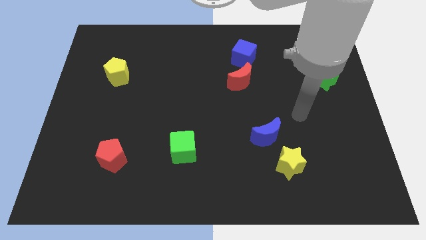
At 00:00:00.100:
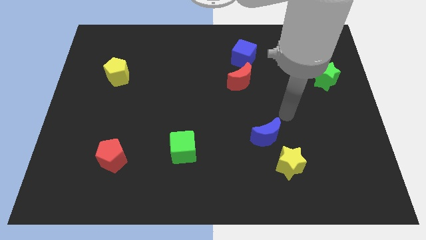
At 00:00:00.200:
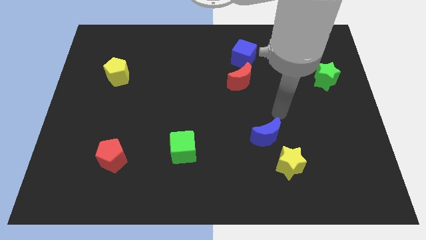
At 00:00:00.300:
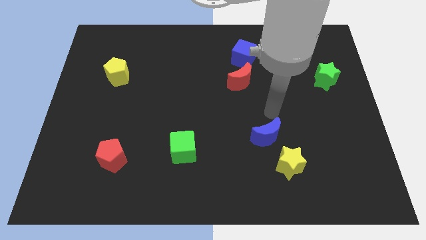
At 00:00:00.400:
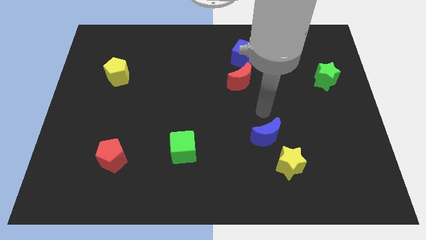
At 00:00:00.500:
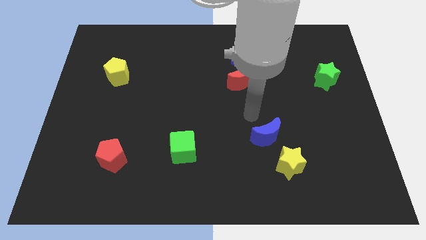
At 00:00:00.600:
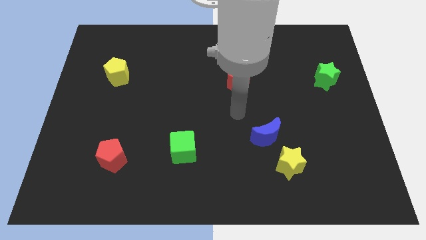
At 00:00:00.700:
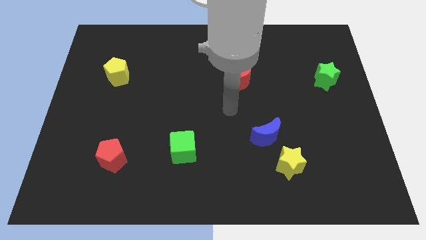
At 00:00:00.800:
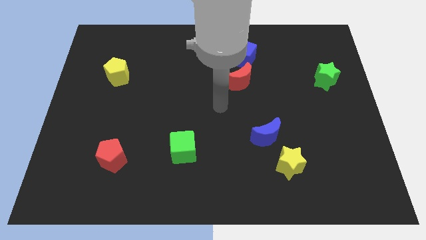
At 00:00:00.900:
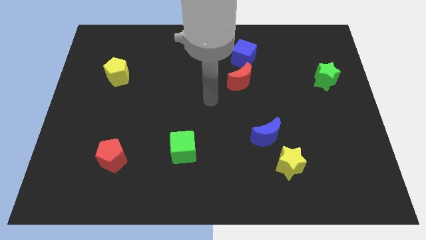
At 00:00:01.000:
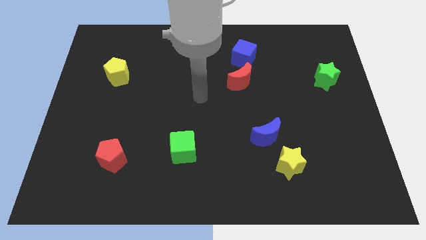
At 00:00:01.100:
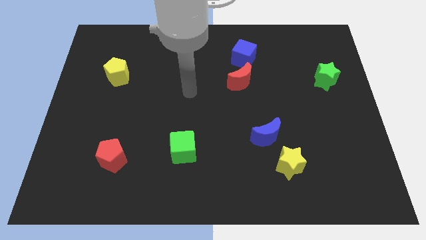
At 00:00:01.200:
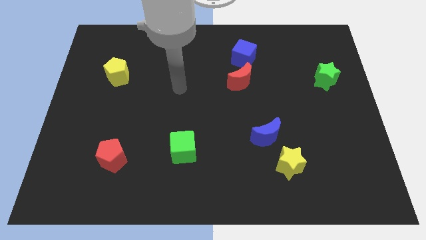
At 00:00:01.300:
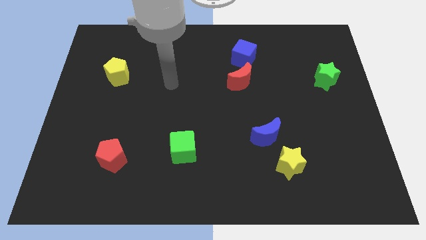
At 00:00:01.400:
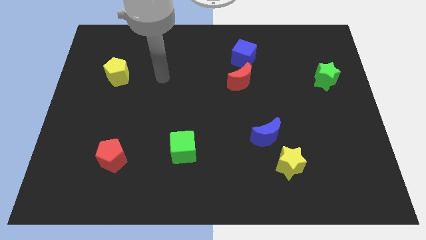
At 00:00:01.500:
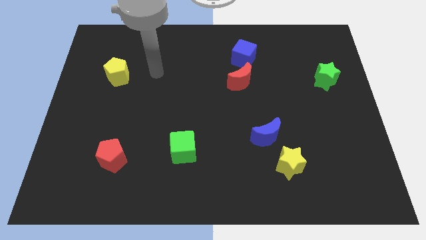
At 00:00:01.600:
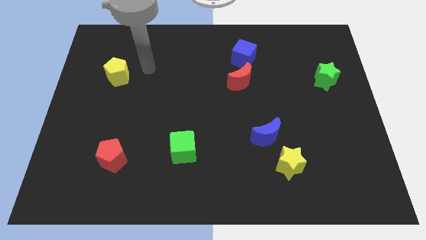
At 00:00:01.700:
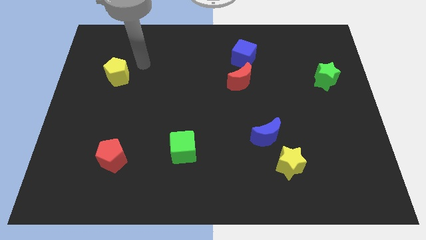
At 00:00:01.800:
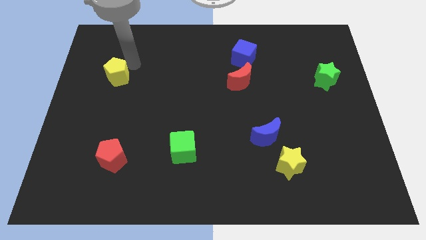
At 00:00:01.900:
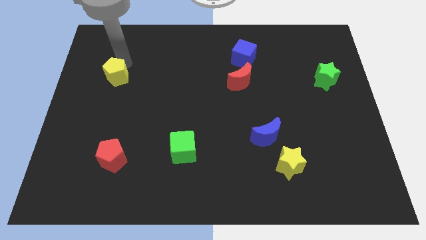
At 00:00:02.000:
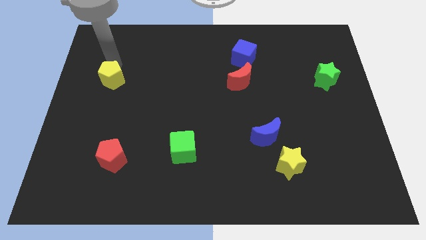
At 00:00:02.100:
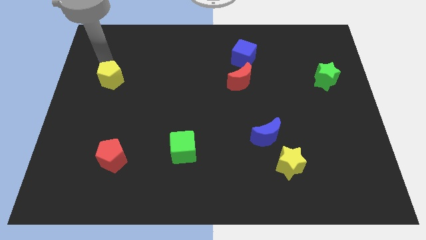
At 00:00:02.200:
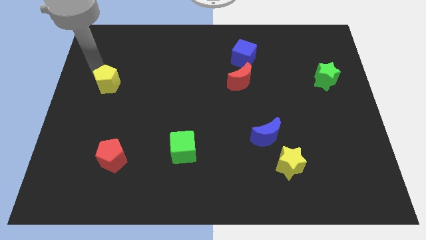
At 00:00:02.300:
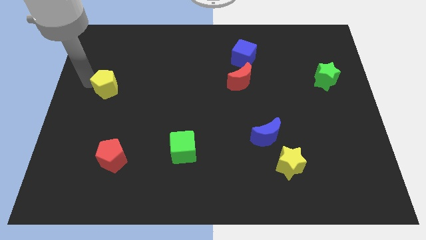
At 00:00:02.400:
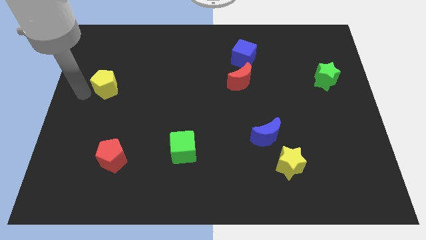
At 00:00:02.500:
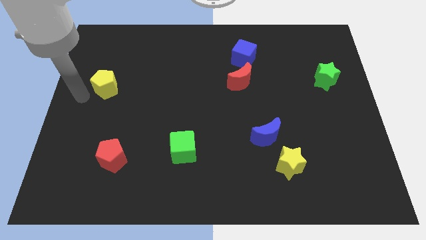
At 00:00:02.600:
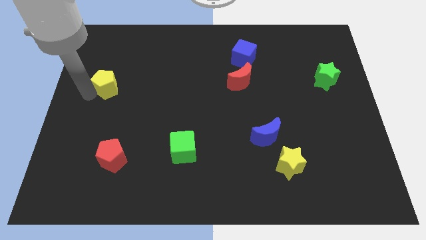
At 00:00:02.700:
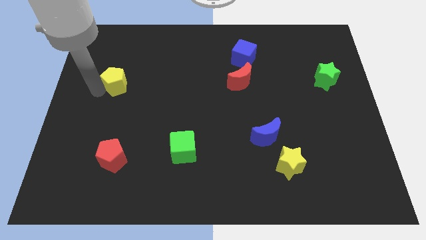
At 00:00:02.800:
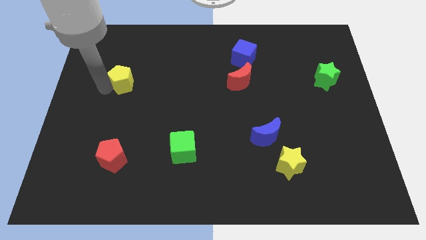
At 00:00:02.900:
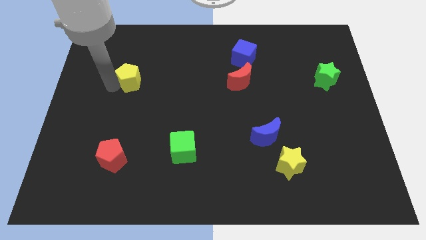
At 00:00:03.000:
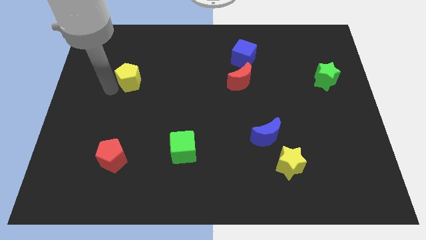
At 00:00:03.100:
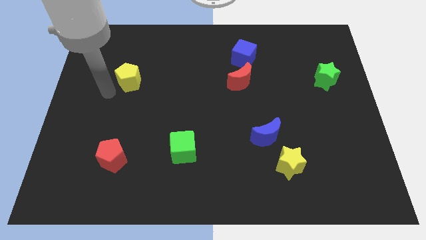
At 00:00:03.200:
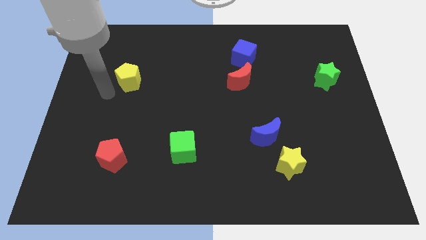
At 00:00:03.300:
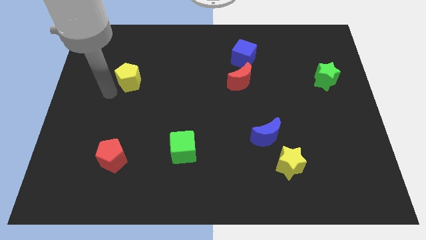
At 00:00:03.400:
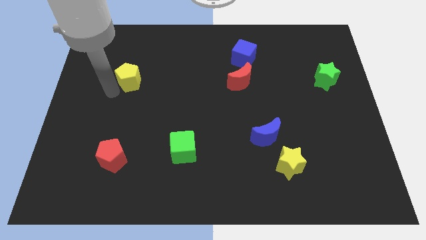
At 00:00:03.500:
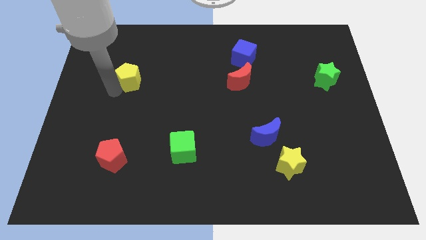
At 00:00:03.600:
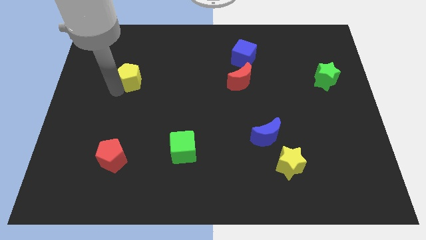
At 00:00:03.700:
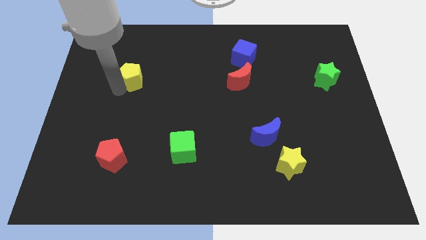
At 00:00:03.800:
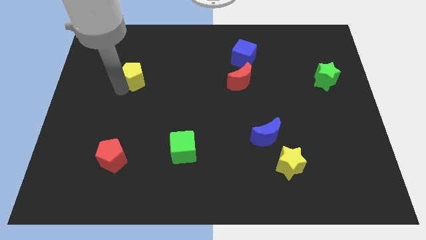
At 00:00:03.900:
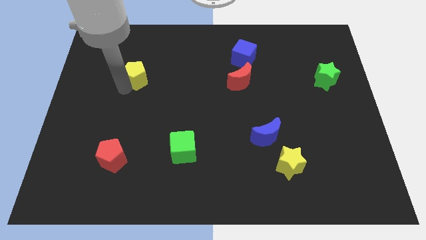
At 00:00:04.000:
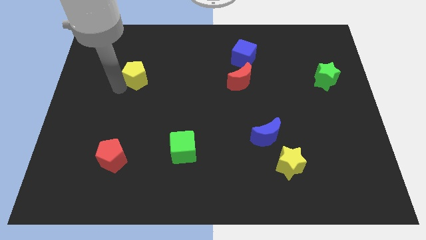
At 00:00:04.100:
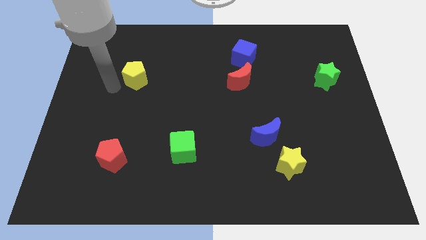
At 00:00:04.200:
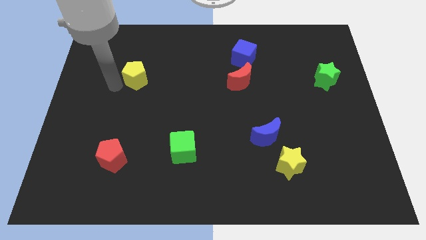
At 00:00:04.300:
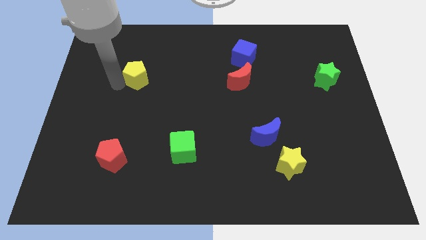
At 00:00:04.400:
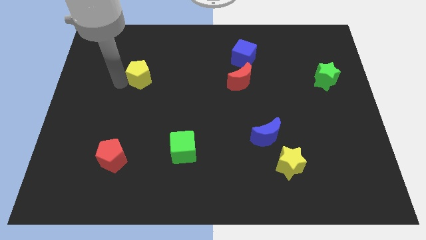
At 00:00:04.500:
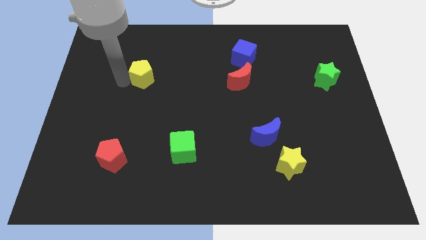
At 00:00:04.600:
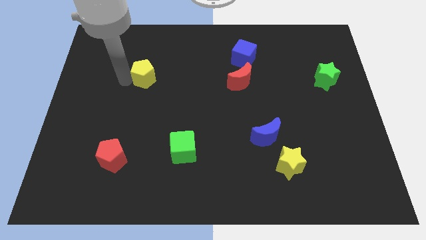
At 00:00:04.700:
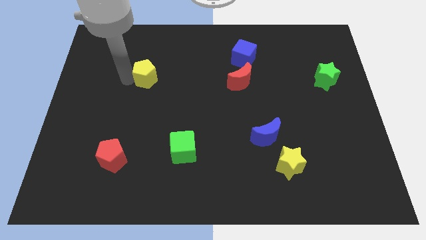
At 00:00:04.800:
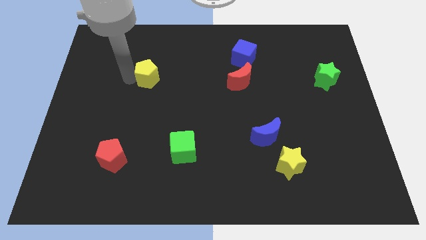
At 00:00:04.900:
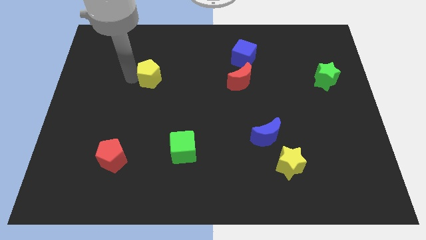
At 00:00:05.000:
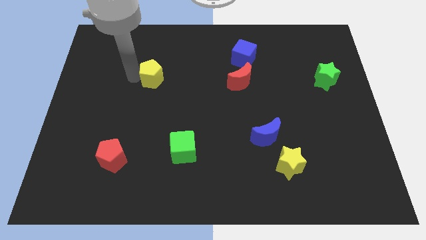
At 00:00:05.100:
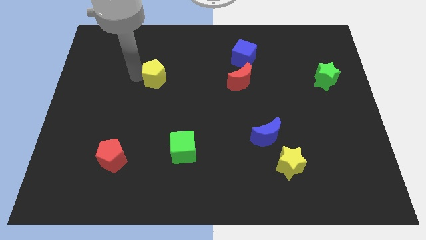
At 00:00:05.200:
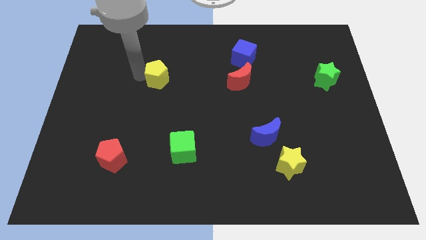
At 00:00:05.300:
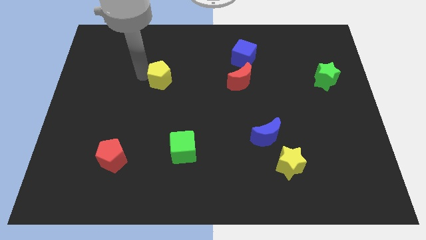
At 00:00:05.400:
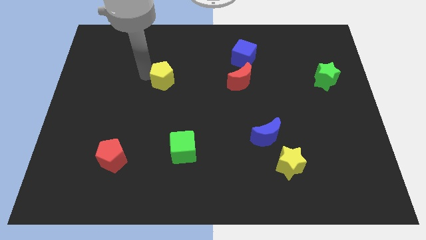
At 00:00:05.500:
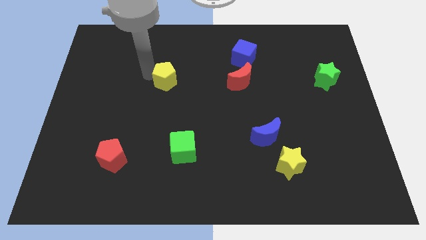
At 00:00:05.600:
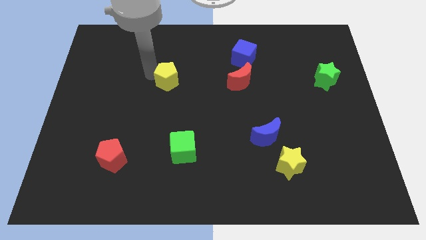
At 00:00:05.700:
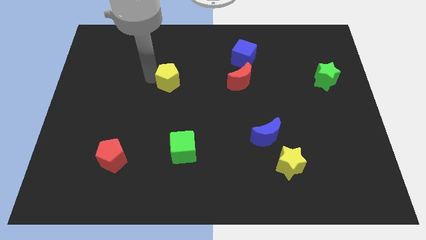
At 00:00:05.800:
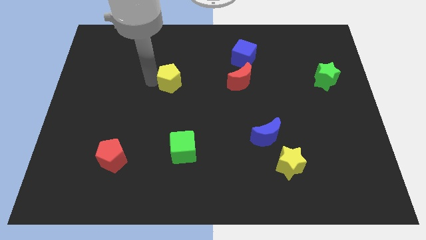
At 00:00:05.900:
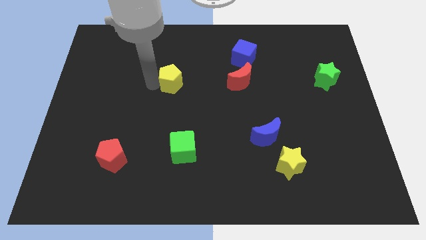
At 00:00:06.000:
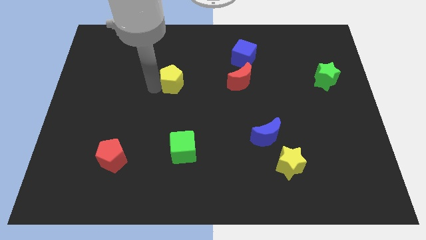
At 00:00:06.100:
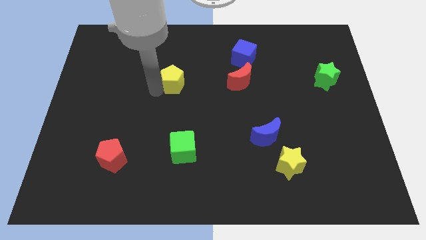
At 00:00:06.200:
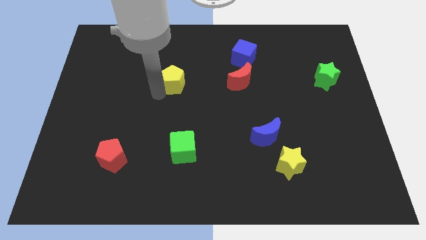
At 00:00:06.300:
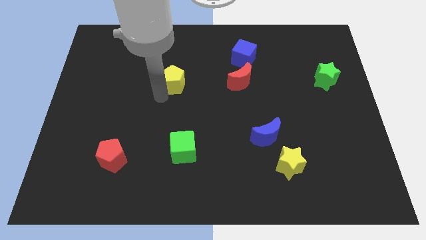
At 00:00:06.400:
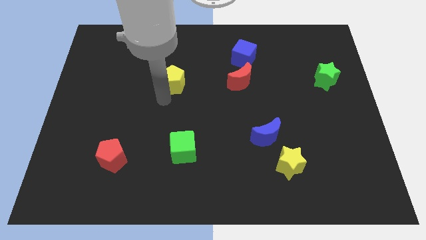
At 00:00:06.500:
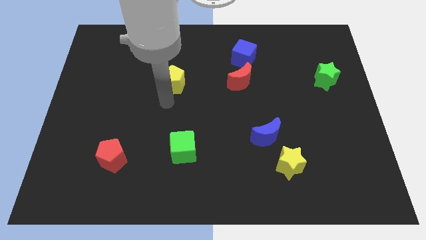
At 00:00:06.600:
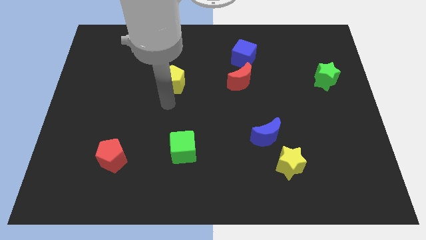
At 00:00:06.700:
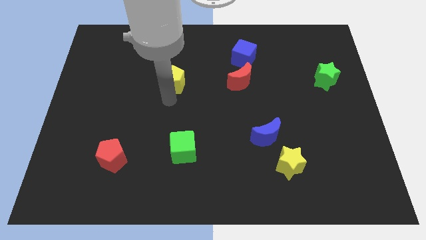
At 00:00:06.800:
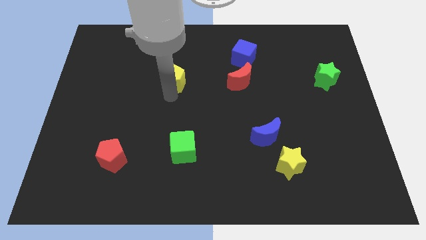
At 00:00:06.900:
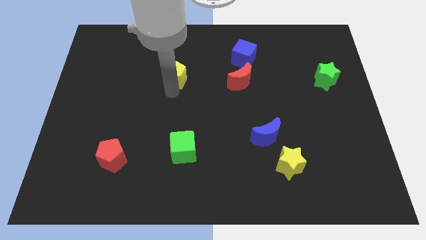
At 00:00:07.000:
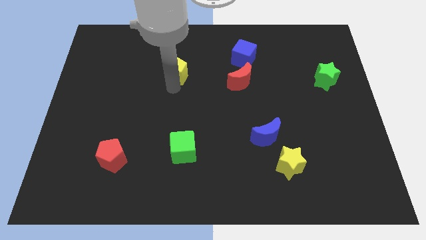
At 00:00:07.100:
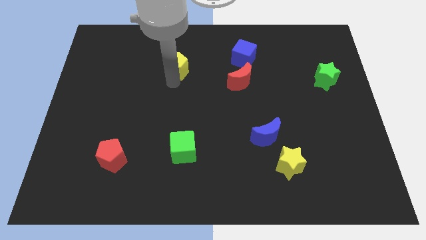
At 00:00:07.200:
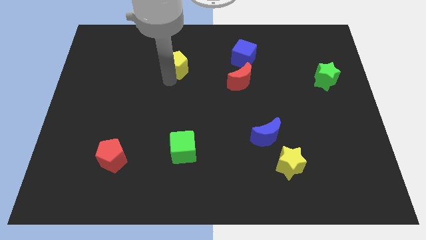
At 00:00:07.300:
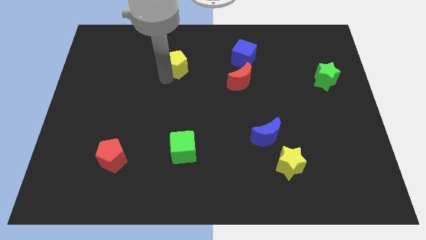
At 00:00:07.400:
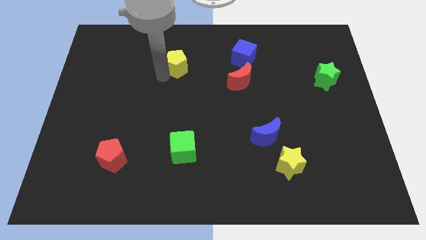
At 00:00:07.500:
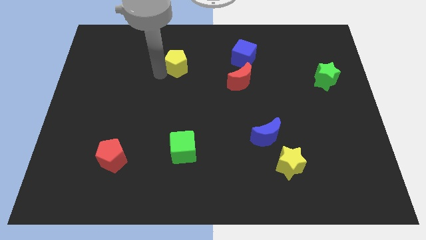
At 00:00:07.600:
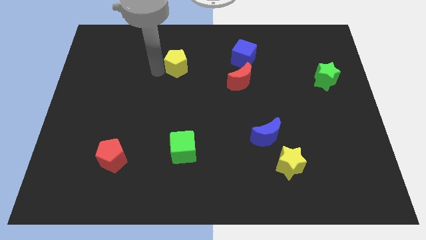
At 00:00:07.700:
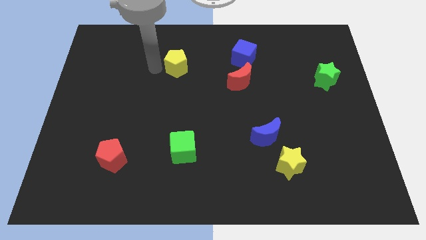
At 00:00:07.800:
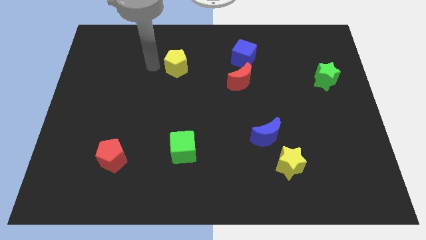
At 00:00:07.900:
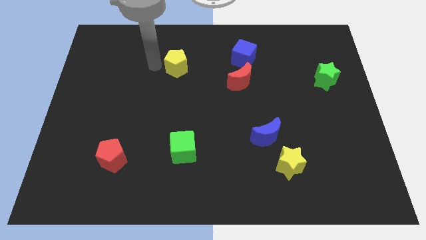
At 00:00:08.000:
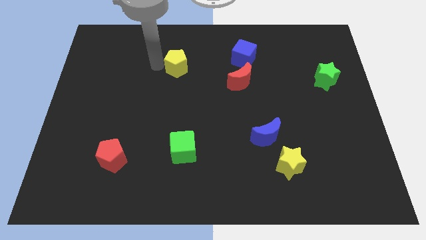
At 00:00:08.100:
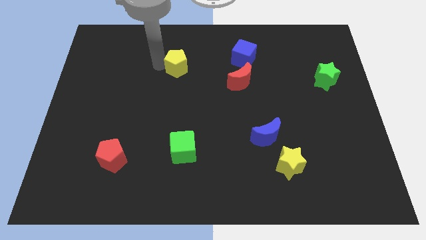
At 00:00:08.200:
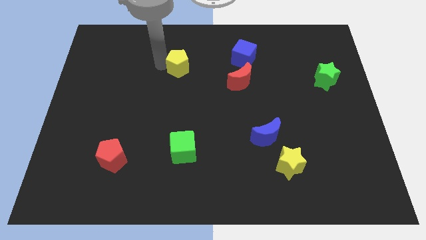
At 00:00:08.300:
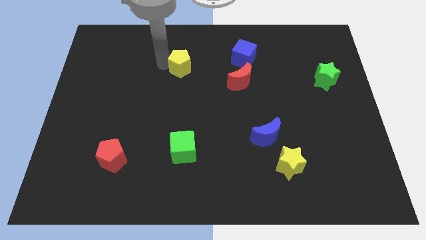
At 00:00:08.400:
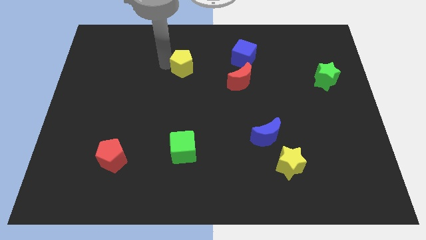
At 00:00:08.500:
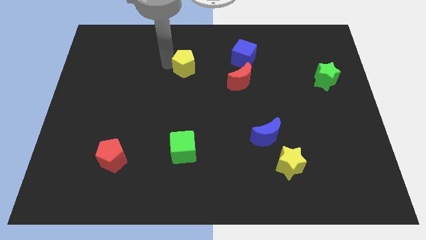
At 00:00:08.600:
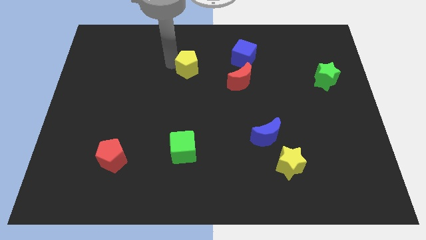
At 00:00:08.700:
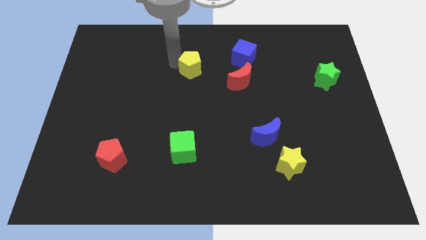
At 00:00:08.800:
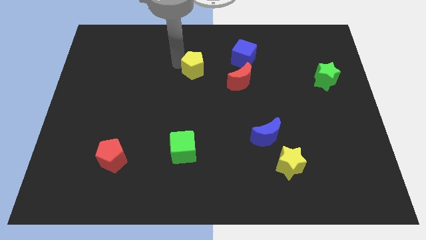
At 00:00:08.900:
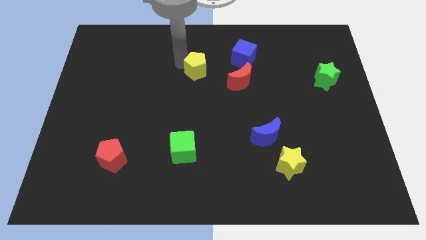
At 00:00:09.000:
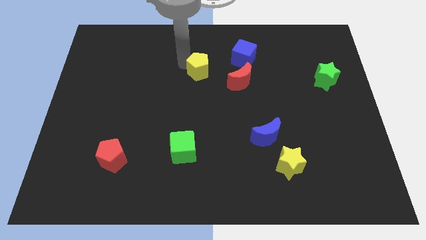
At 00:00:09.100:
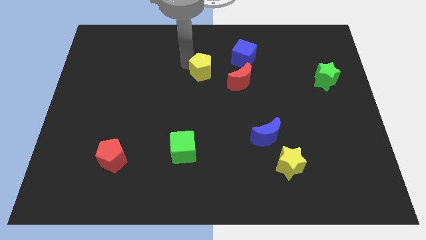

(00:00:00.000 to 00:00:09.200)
move the yellow pentagon to the top left side of the red moon
